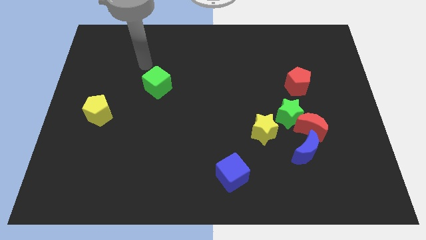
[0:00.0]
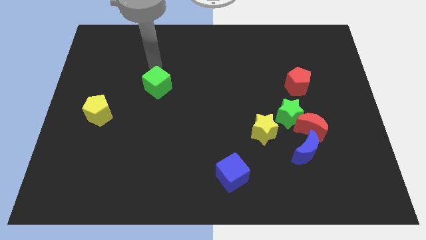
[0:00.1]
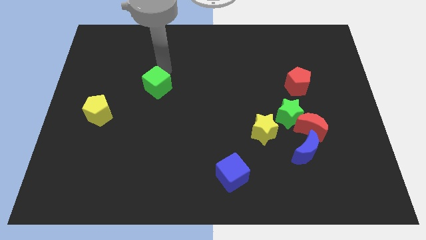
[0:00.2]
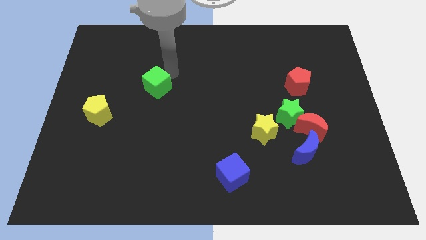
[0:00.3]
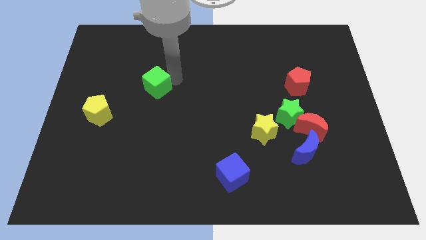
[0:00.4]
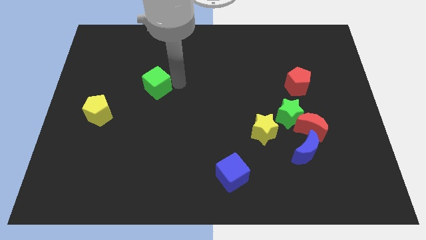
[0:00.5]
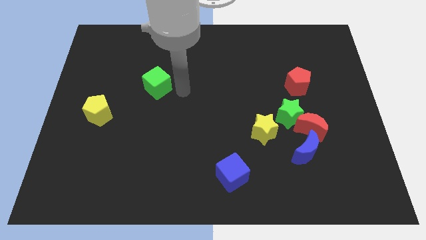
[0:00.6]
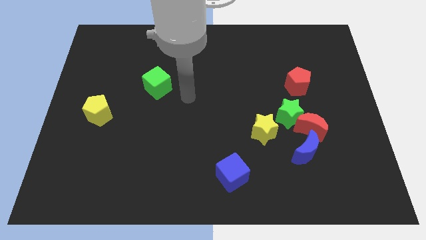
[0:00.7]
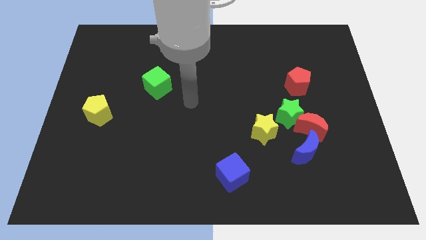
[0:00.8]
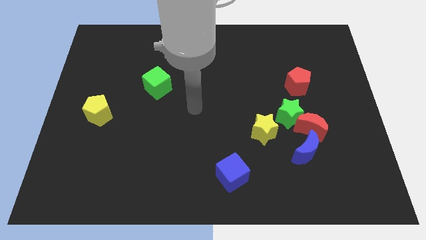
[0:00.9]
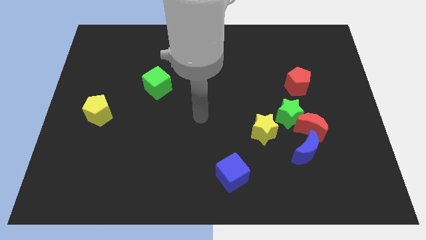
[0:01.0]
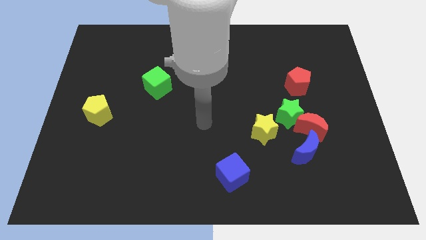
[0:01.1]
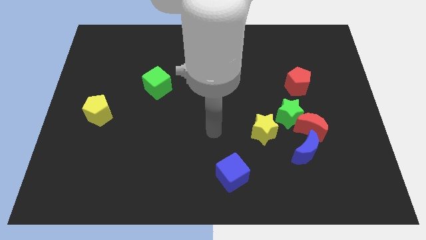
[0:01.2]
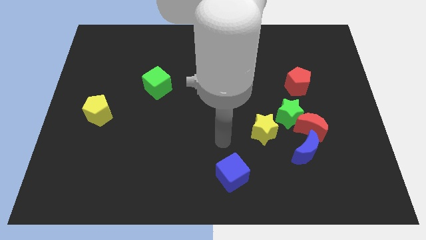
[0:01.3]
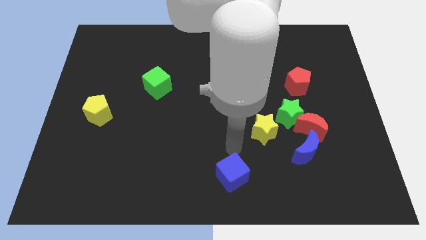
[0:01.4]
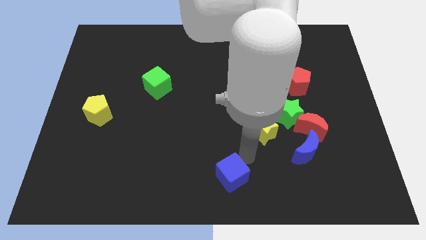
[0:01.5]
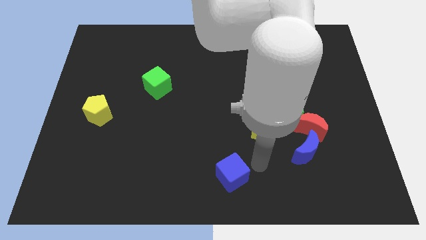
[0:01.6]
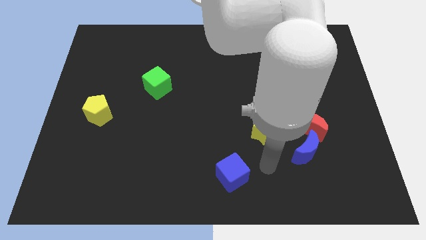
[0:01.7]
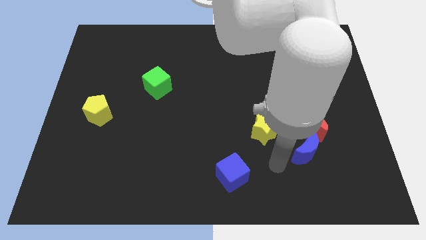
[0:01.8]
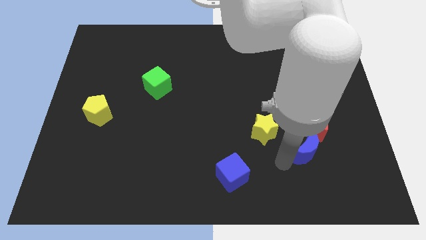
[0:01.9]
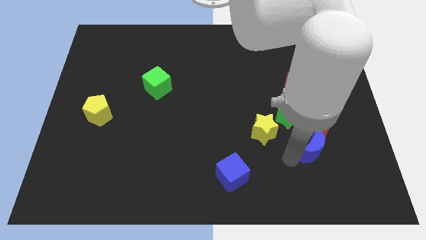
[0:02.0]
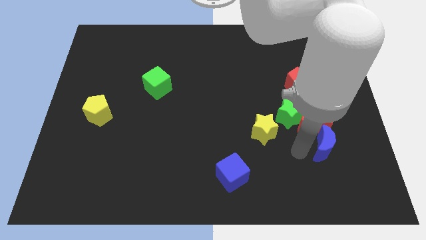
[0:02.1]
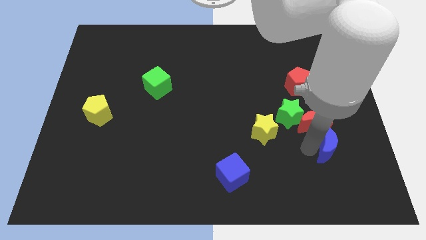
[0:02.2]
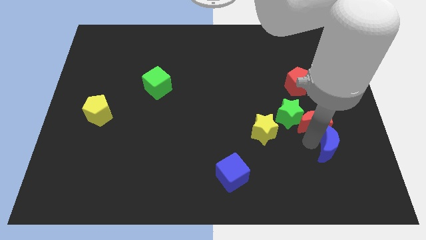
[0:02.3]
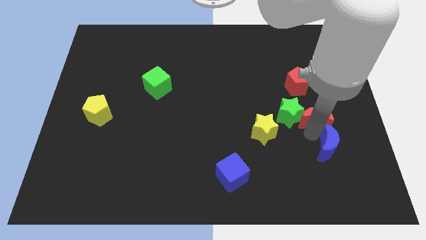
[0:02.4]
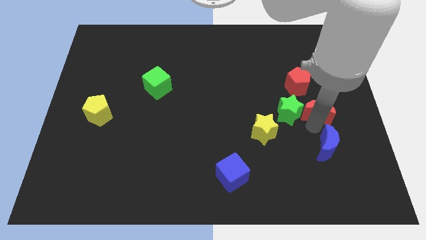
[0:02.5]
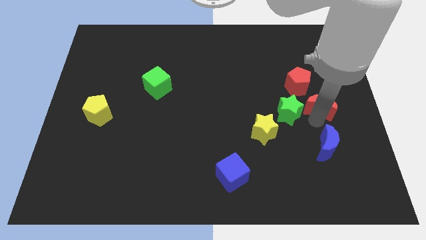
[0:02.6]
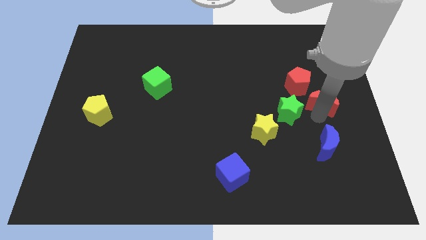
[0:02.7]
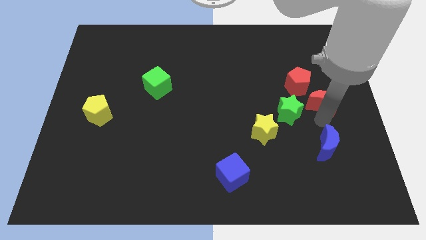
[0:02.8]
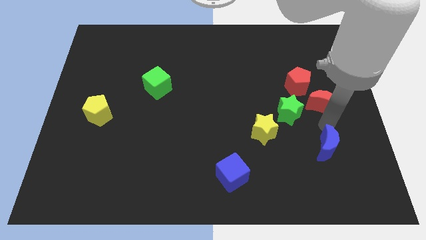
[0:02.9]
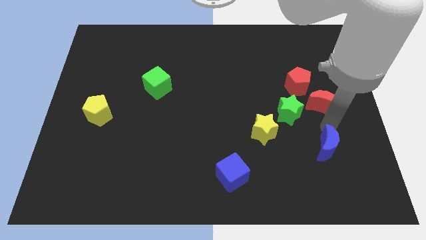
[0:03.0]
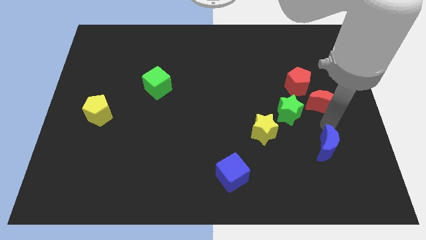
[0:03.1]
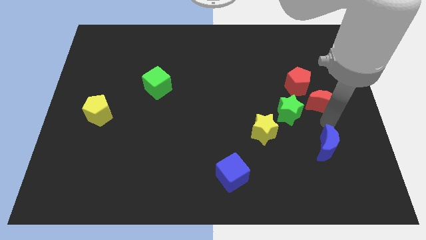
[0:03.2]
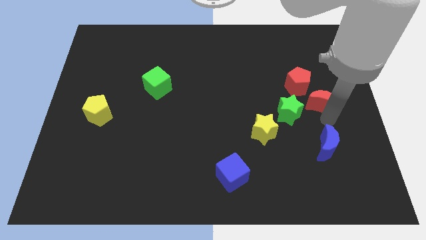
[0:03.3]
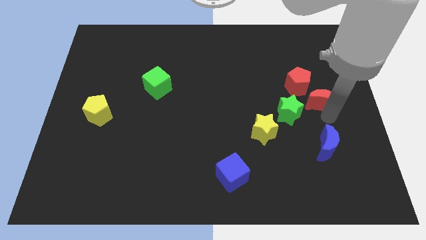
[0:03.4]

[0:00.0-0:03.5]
slightly slide the red moon up

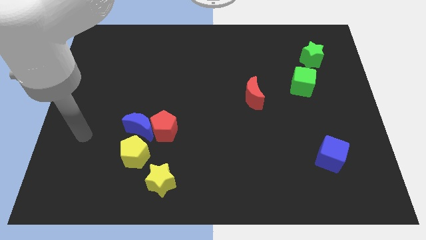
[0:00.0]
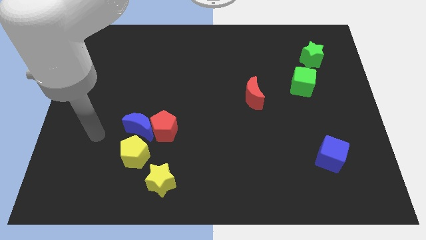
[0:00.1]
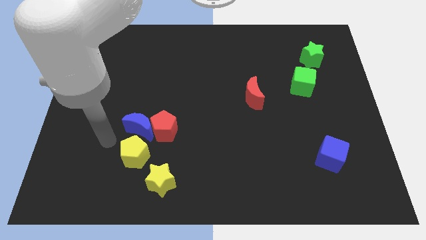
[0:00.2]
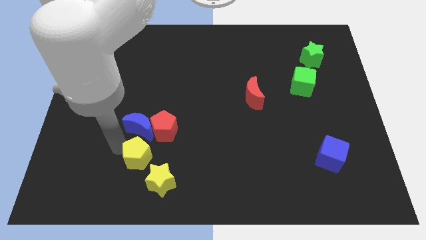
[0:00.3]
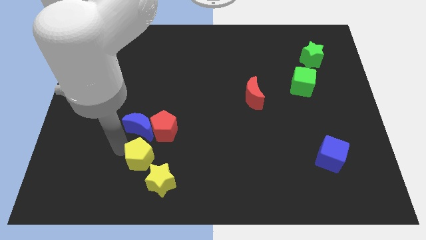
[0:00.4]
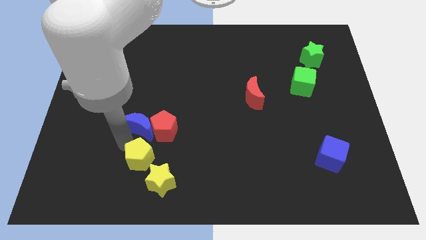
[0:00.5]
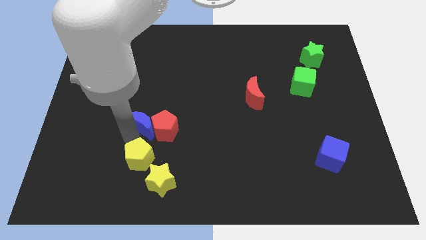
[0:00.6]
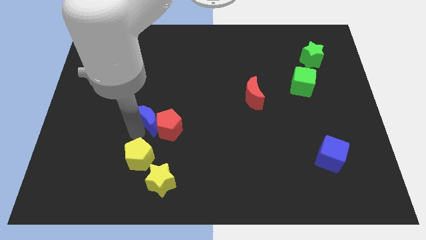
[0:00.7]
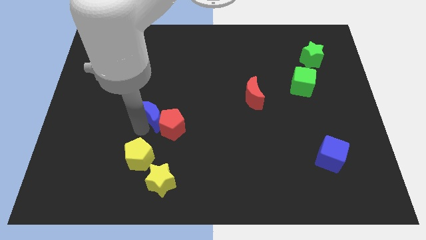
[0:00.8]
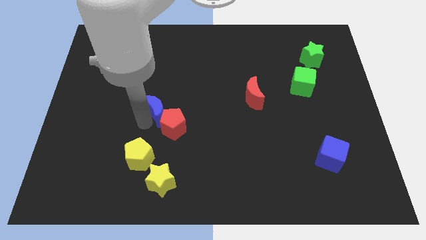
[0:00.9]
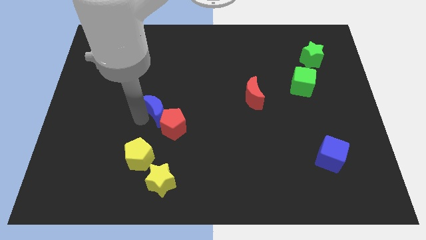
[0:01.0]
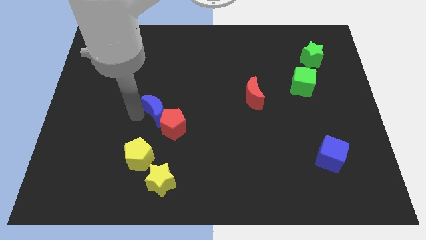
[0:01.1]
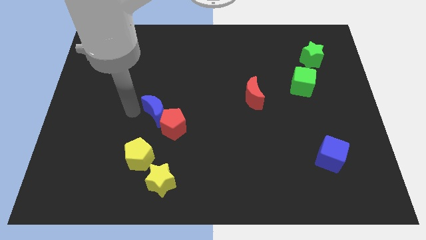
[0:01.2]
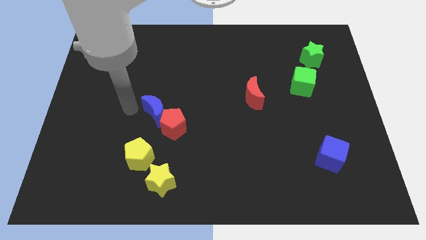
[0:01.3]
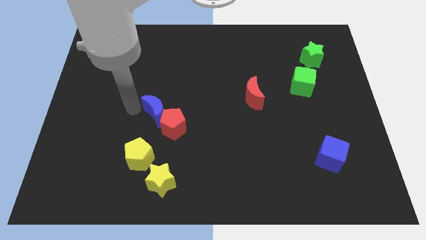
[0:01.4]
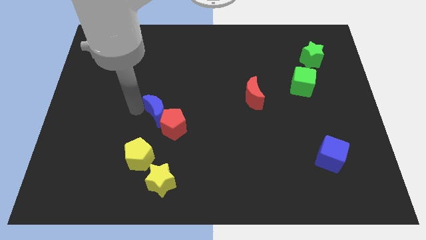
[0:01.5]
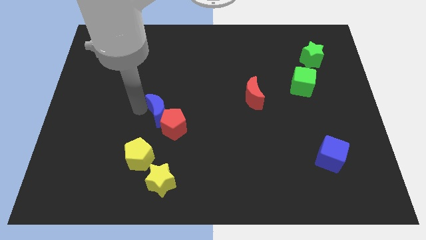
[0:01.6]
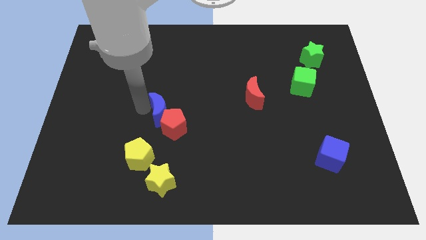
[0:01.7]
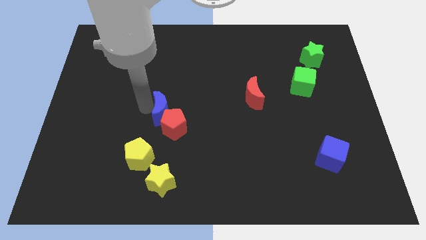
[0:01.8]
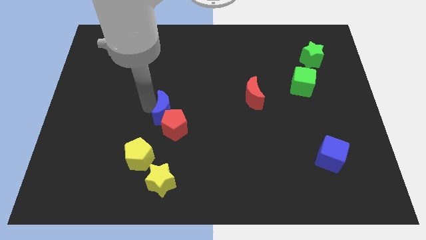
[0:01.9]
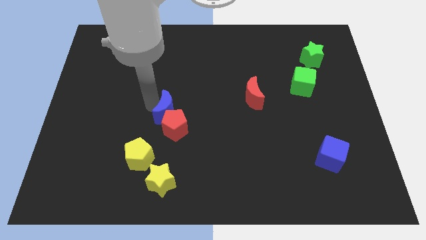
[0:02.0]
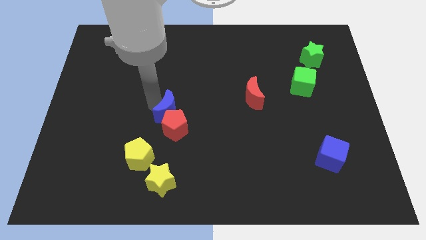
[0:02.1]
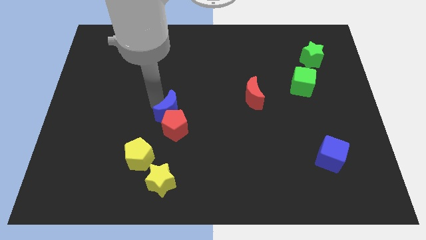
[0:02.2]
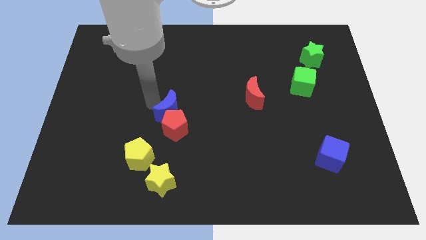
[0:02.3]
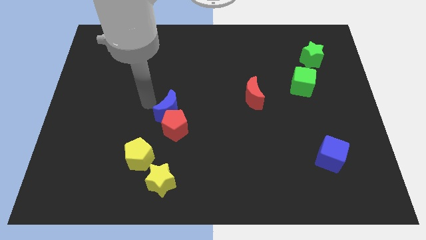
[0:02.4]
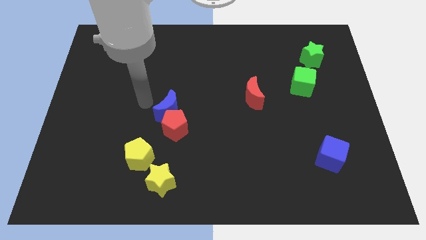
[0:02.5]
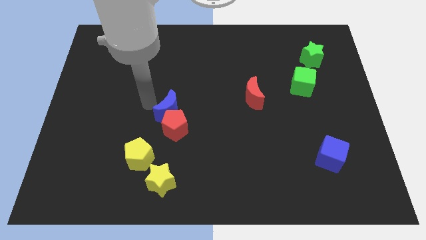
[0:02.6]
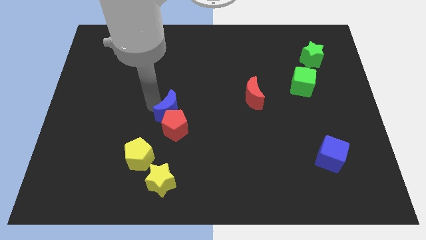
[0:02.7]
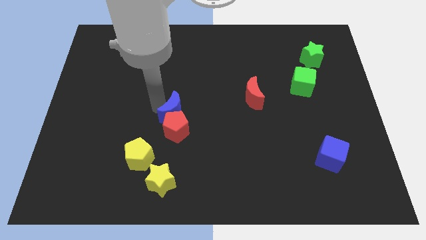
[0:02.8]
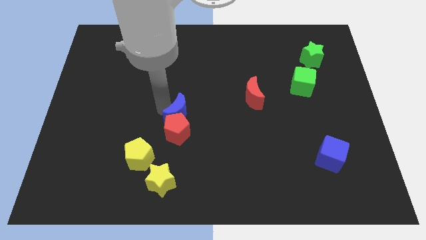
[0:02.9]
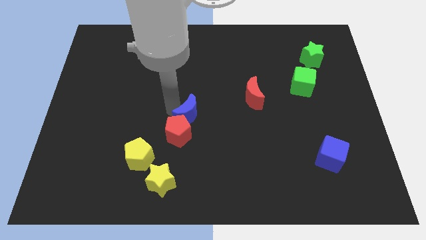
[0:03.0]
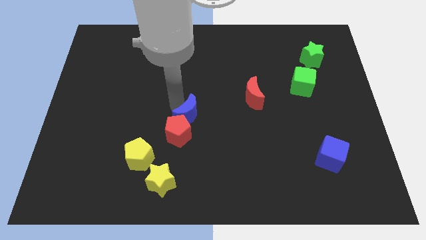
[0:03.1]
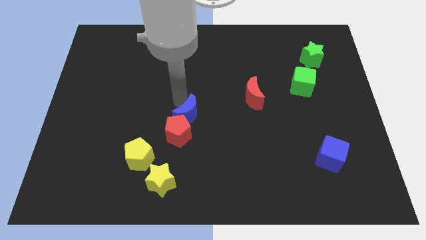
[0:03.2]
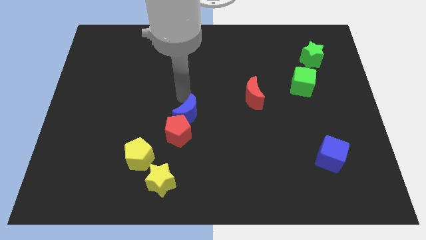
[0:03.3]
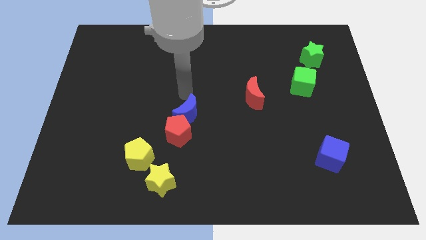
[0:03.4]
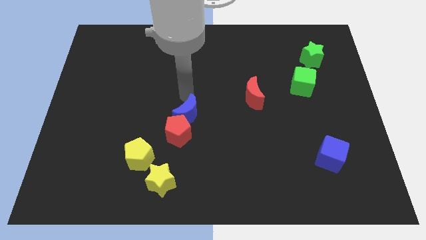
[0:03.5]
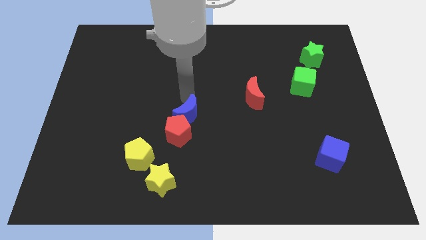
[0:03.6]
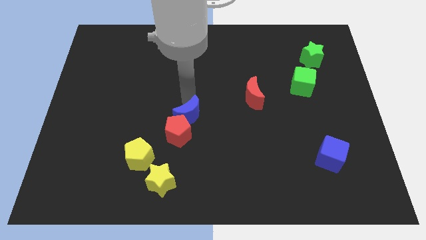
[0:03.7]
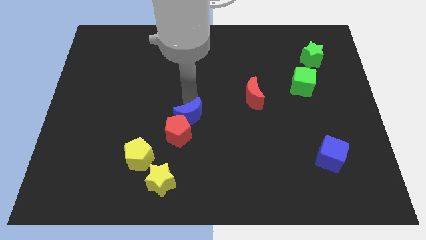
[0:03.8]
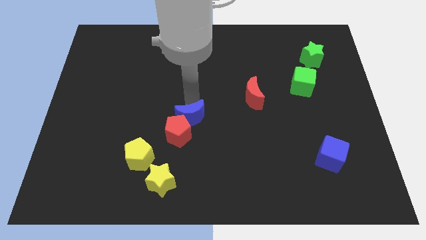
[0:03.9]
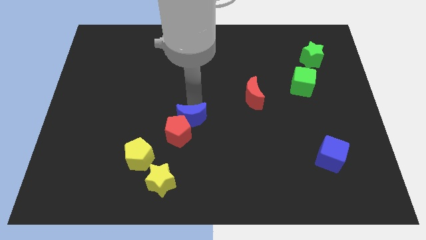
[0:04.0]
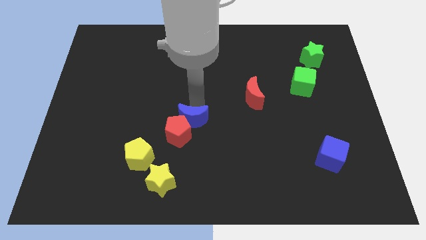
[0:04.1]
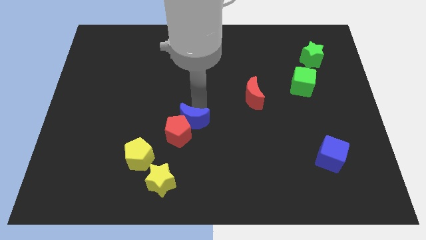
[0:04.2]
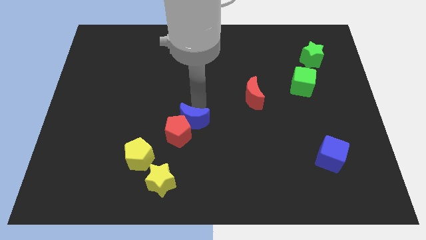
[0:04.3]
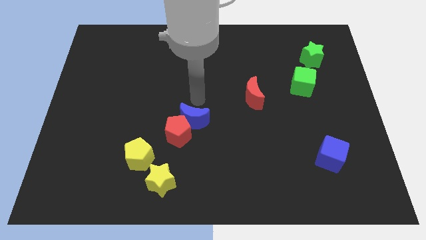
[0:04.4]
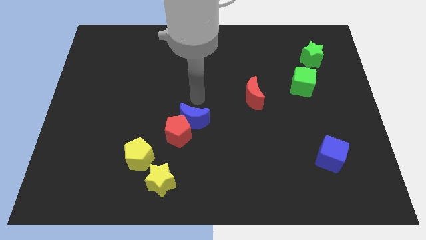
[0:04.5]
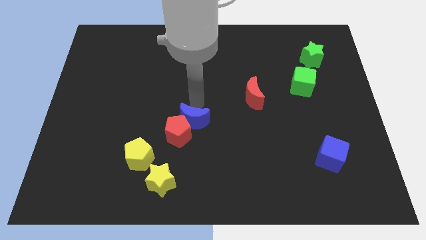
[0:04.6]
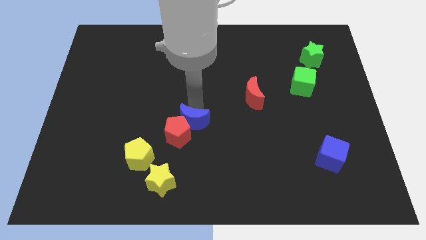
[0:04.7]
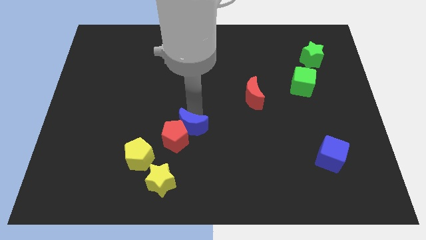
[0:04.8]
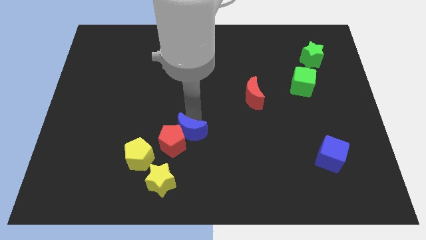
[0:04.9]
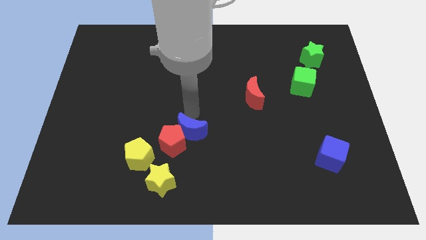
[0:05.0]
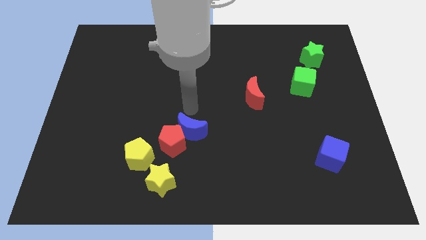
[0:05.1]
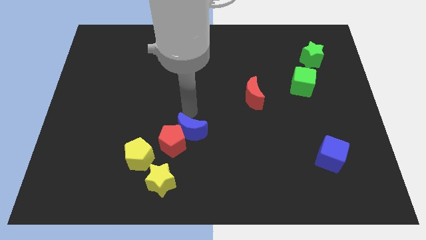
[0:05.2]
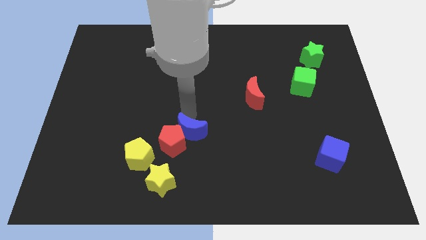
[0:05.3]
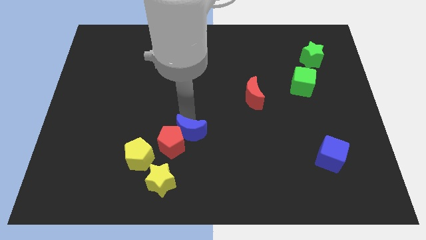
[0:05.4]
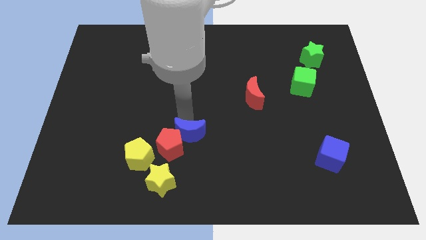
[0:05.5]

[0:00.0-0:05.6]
slide the blue moon down and right diagonally a little bit
